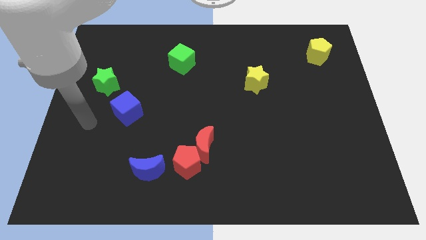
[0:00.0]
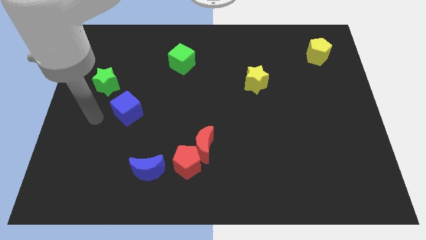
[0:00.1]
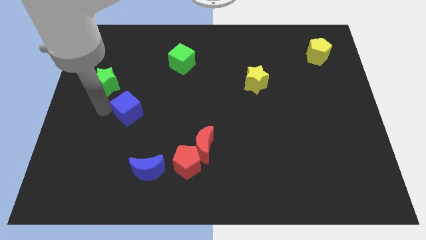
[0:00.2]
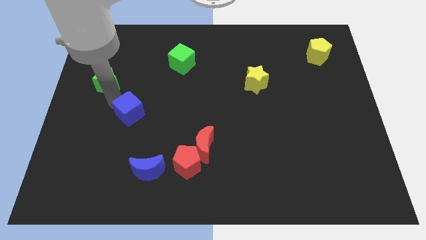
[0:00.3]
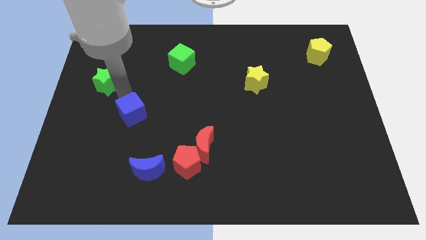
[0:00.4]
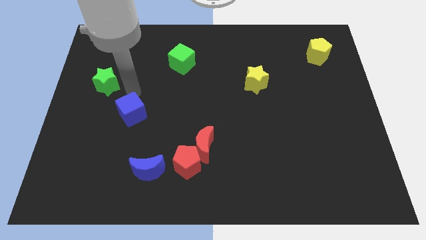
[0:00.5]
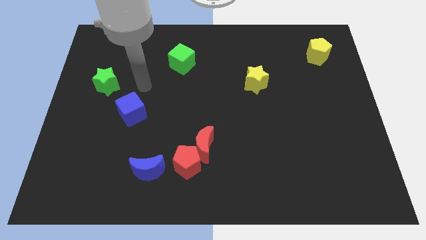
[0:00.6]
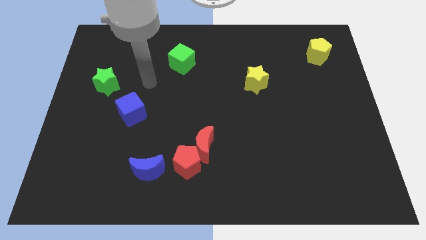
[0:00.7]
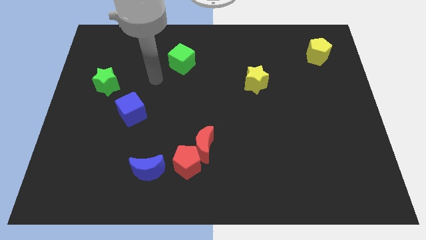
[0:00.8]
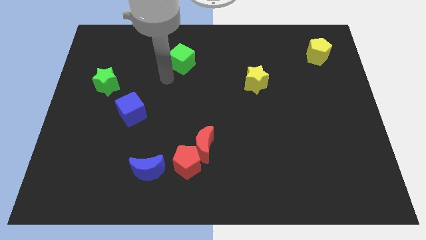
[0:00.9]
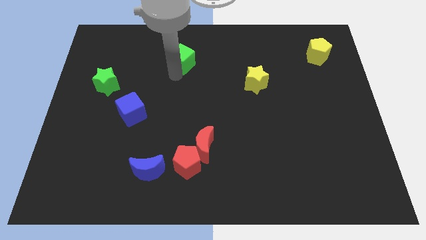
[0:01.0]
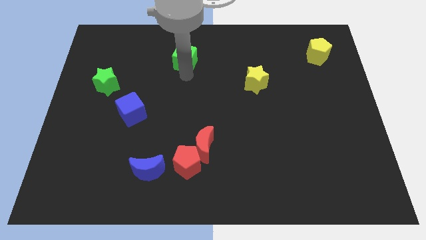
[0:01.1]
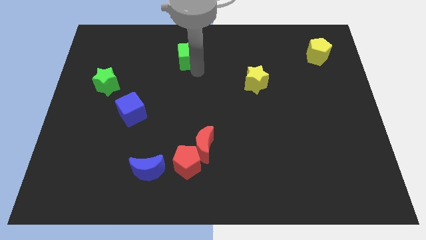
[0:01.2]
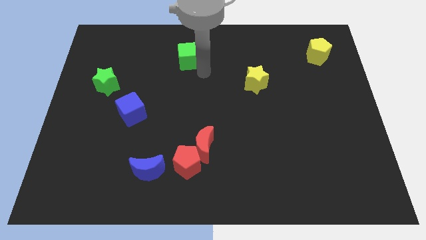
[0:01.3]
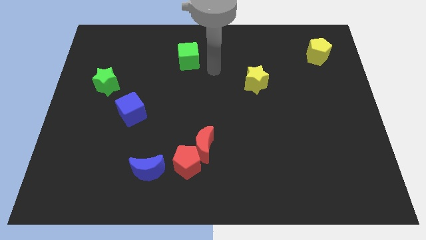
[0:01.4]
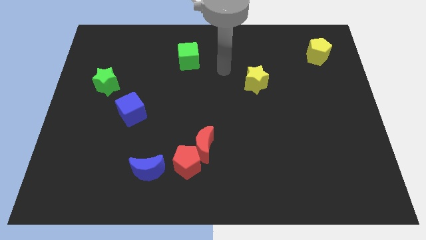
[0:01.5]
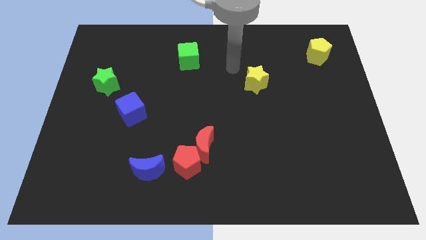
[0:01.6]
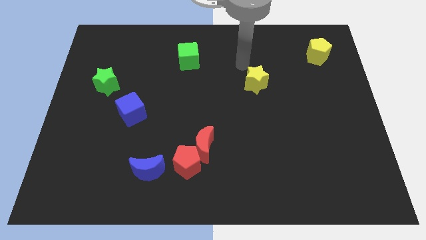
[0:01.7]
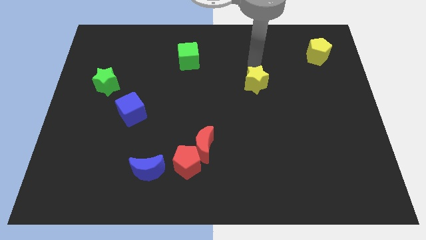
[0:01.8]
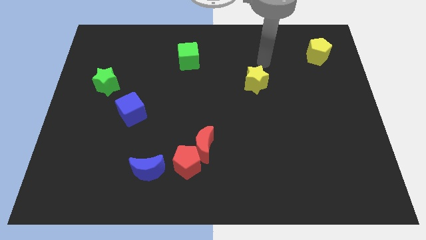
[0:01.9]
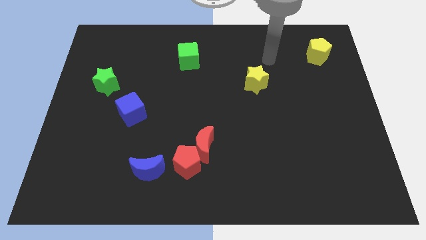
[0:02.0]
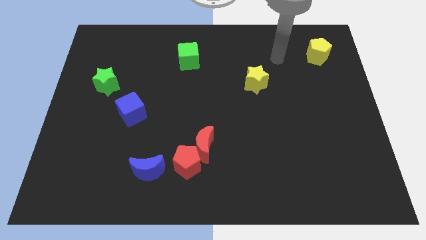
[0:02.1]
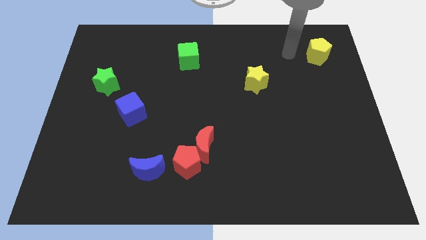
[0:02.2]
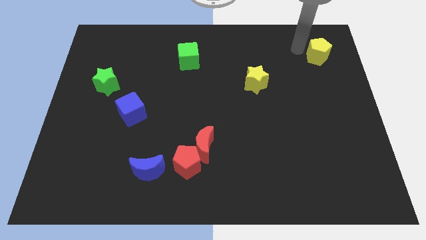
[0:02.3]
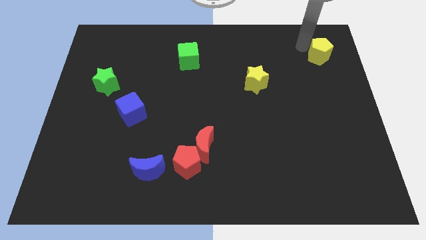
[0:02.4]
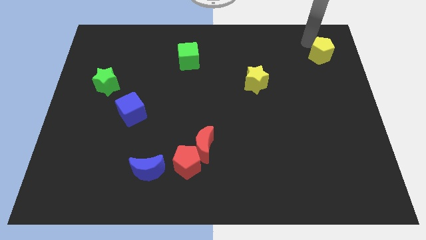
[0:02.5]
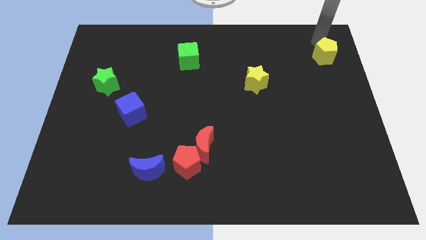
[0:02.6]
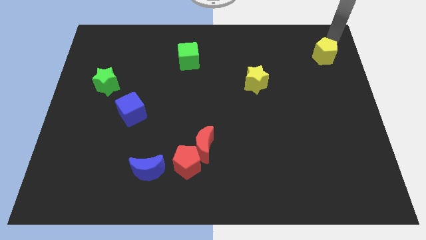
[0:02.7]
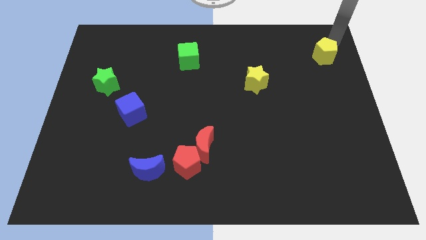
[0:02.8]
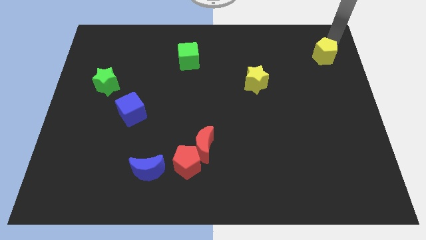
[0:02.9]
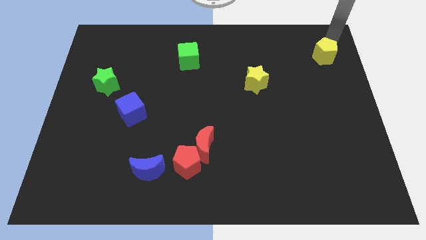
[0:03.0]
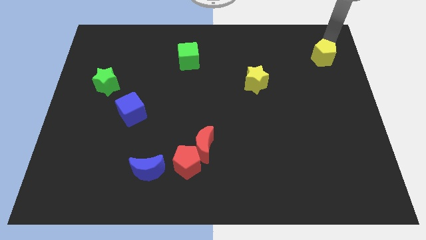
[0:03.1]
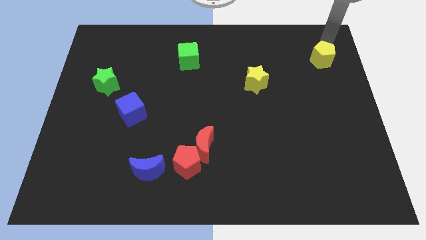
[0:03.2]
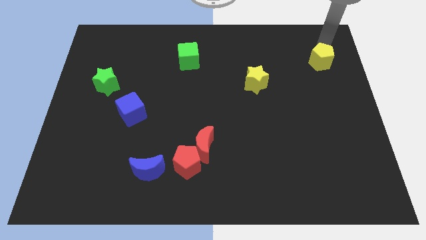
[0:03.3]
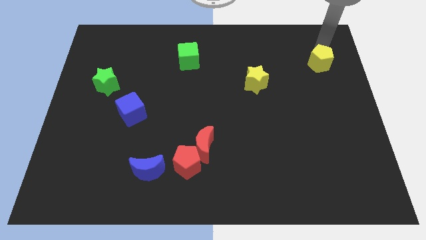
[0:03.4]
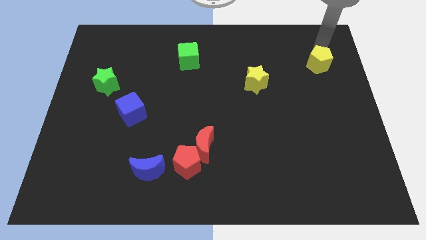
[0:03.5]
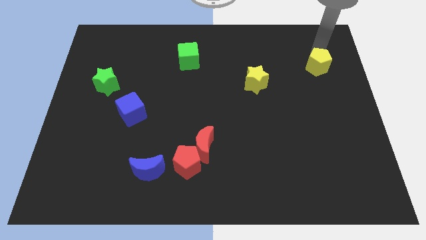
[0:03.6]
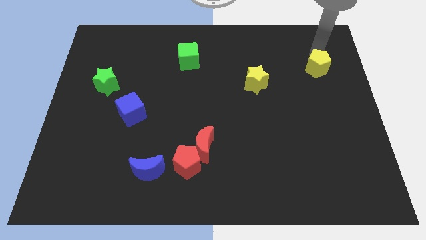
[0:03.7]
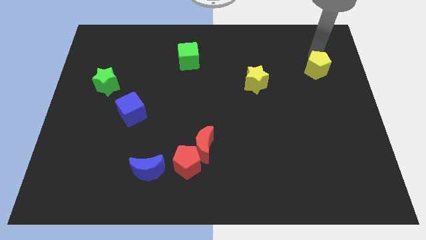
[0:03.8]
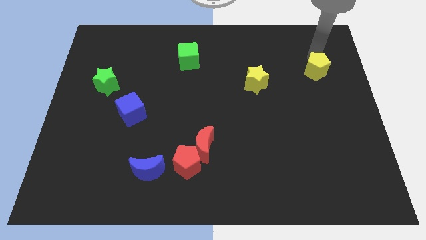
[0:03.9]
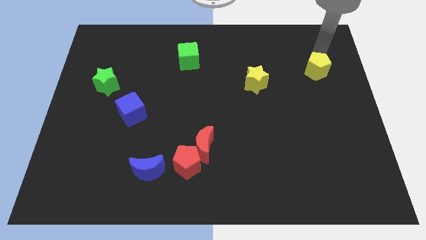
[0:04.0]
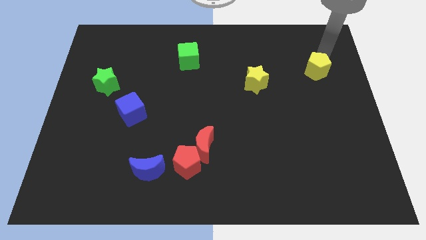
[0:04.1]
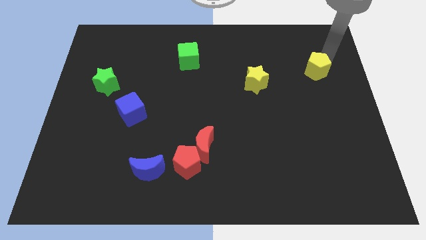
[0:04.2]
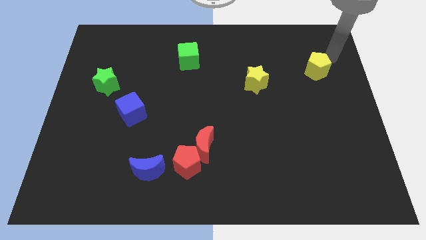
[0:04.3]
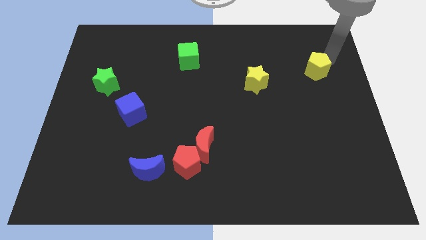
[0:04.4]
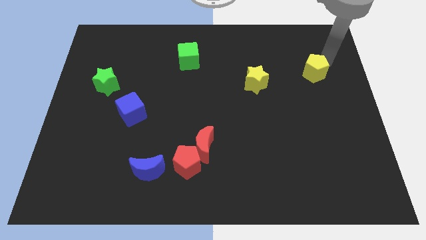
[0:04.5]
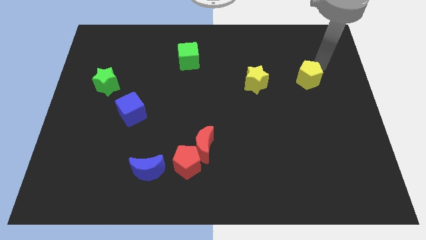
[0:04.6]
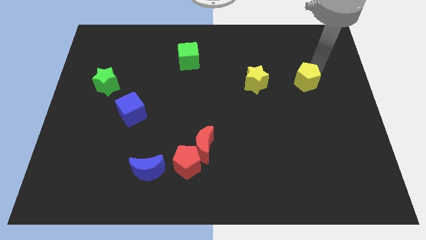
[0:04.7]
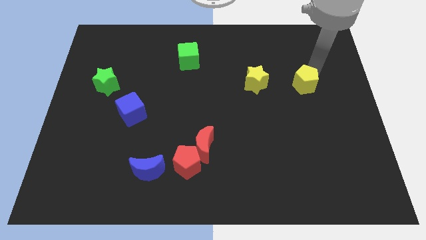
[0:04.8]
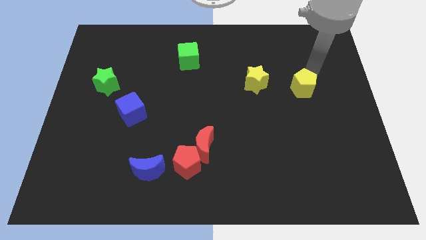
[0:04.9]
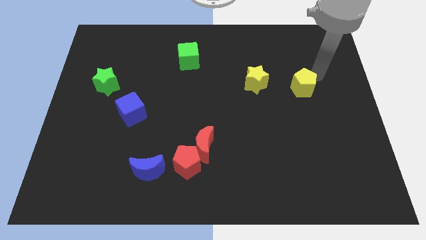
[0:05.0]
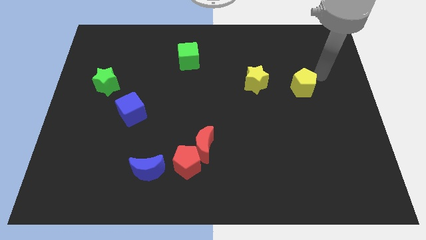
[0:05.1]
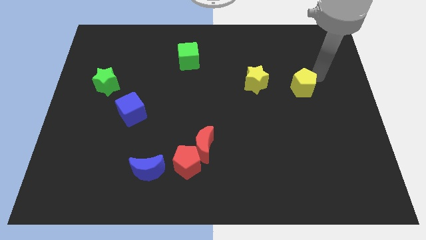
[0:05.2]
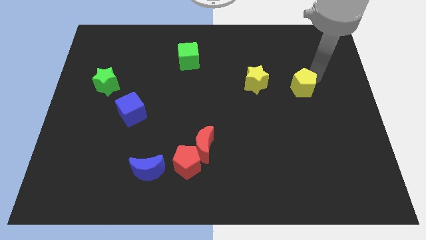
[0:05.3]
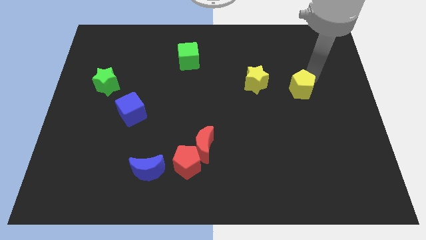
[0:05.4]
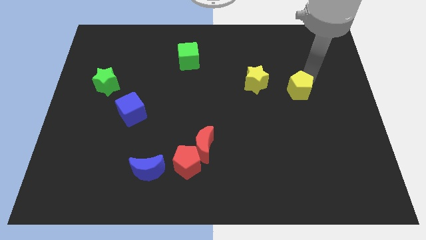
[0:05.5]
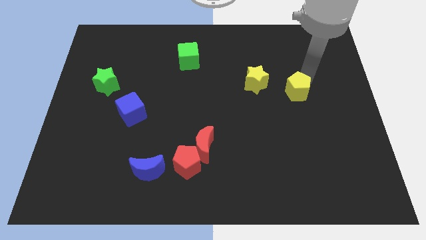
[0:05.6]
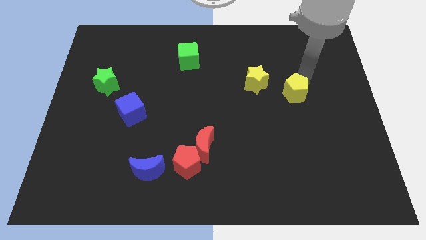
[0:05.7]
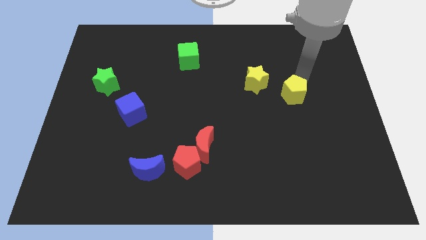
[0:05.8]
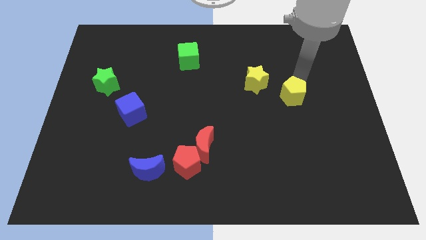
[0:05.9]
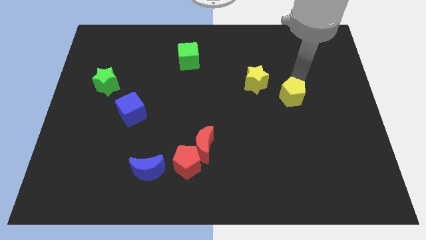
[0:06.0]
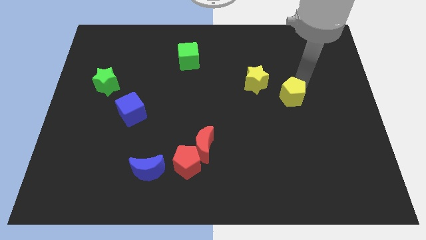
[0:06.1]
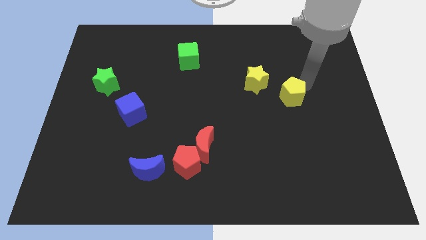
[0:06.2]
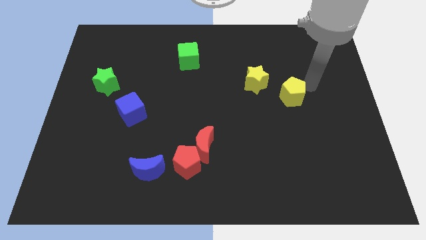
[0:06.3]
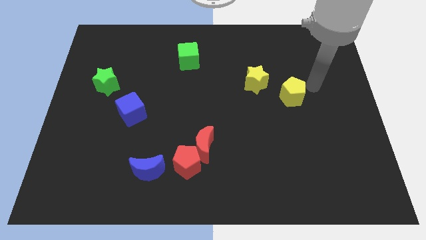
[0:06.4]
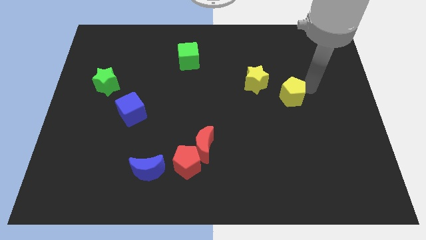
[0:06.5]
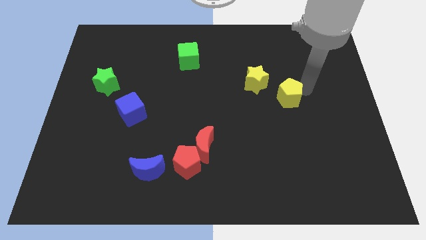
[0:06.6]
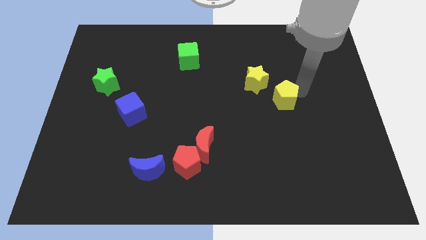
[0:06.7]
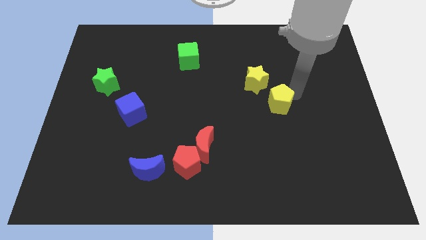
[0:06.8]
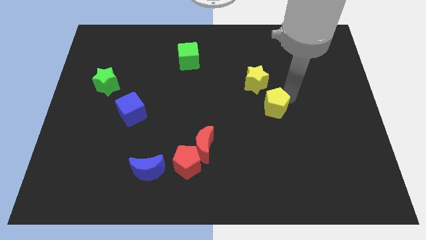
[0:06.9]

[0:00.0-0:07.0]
move the yellow pentagon down and left diagonally

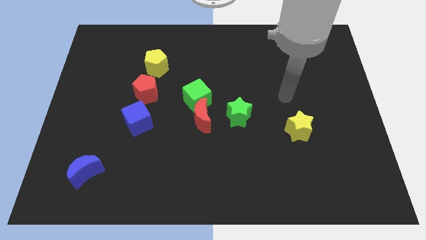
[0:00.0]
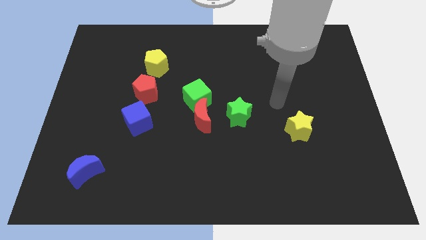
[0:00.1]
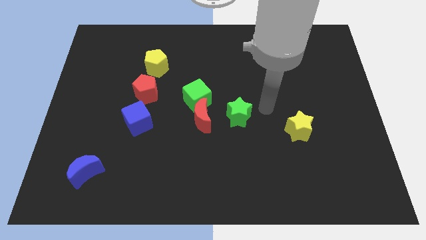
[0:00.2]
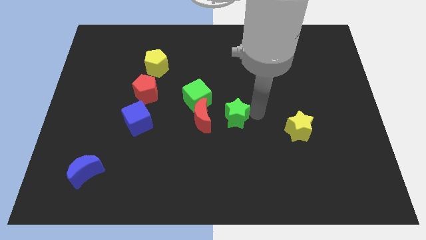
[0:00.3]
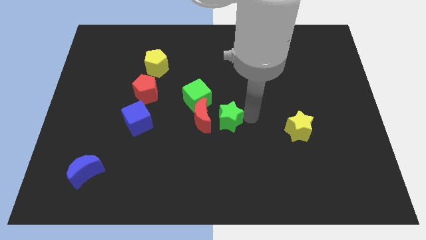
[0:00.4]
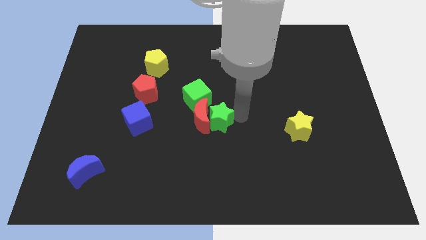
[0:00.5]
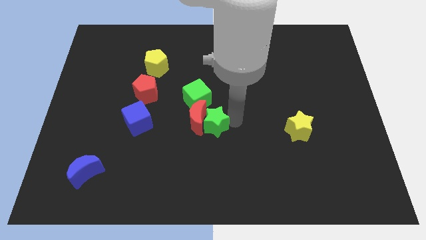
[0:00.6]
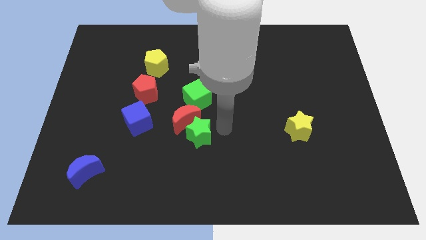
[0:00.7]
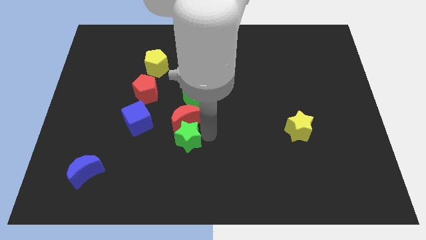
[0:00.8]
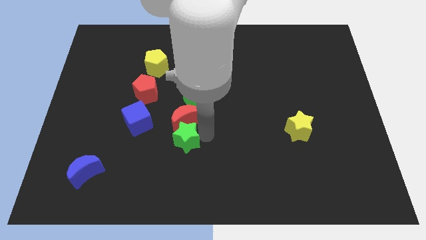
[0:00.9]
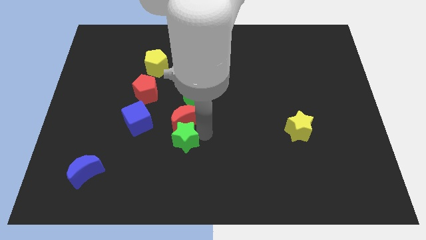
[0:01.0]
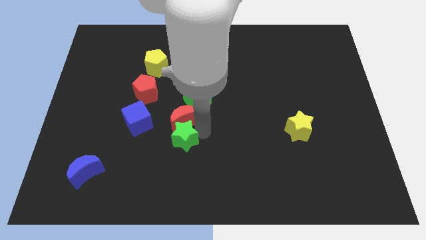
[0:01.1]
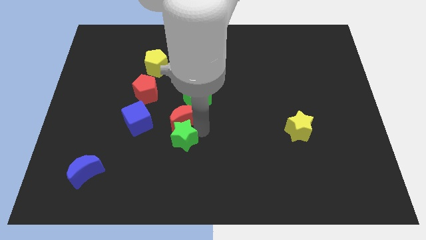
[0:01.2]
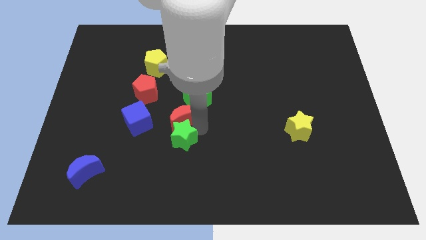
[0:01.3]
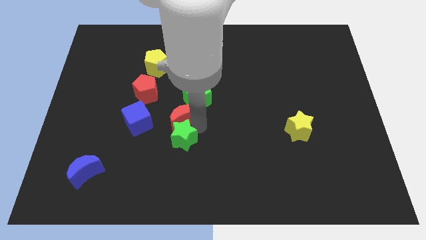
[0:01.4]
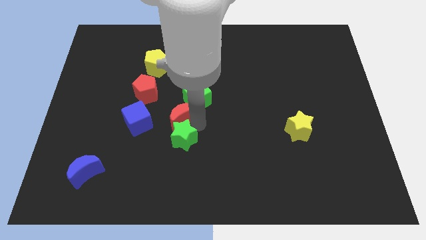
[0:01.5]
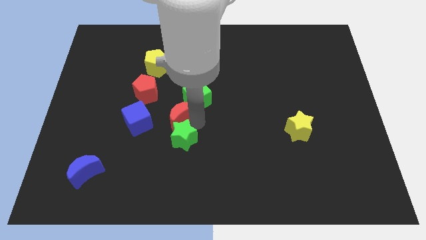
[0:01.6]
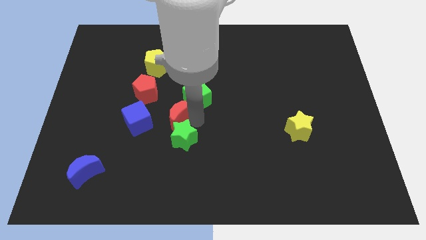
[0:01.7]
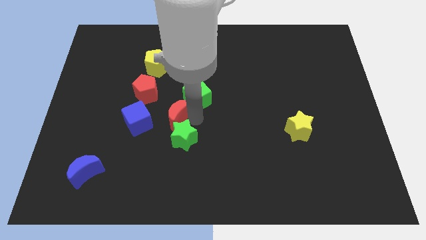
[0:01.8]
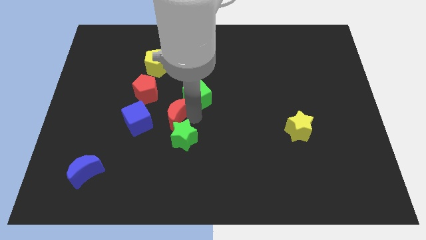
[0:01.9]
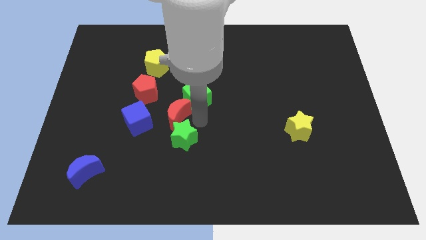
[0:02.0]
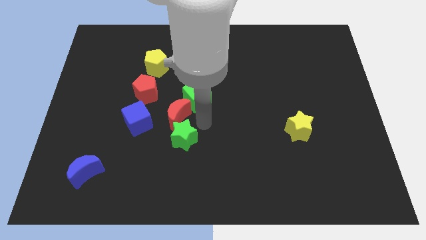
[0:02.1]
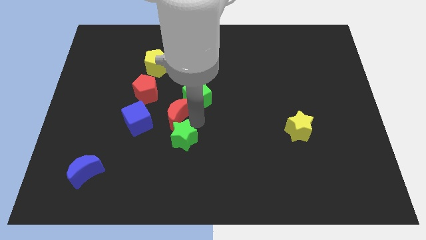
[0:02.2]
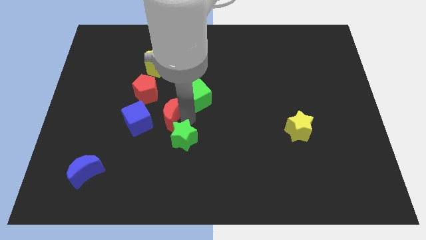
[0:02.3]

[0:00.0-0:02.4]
move the red moon left a little
